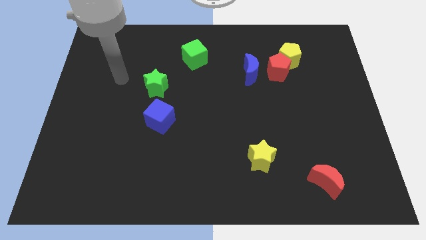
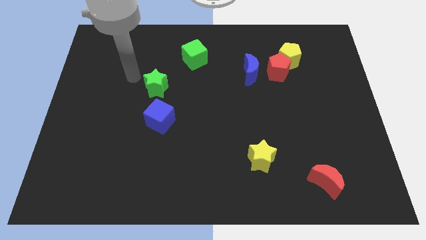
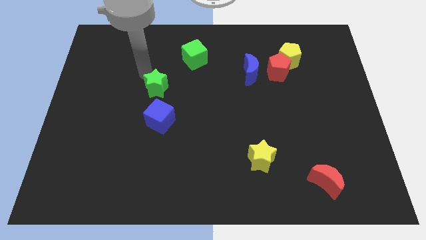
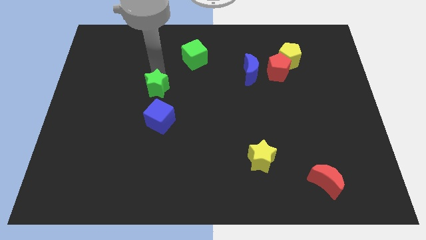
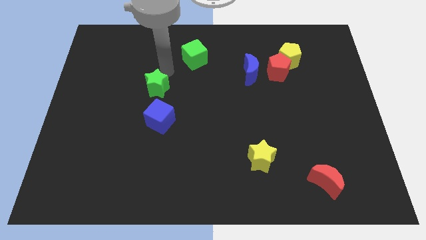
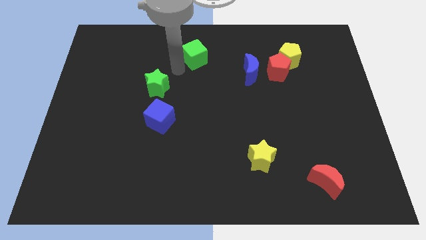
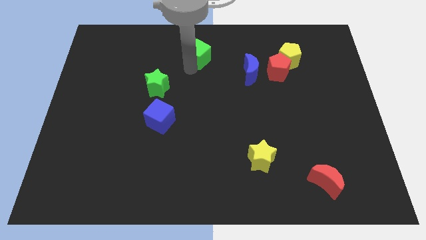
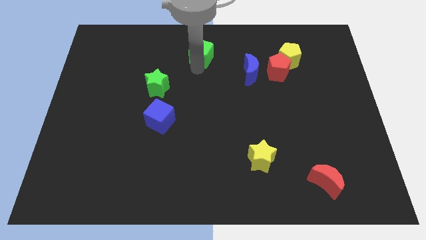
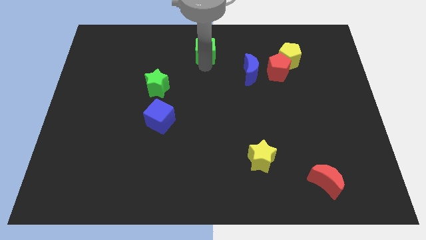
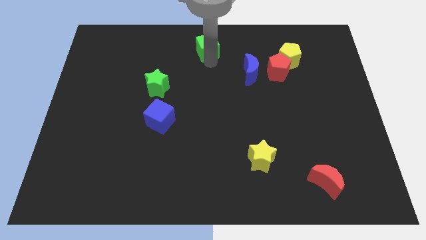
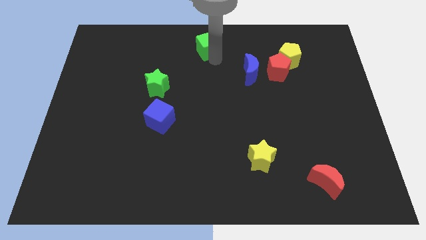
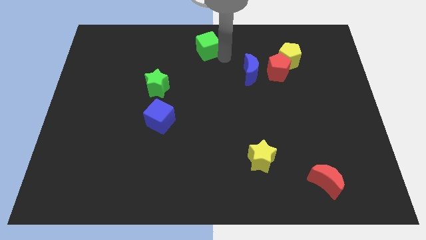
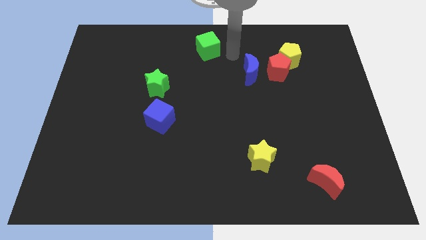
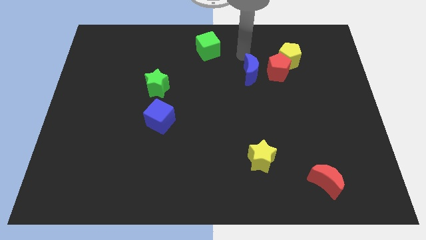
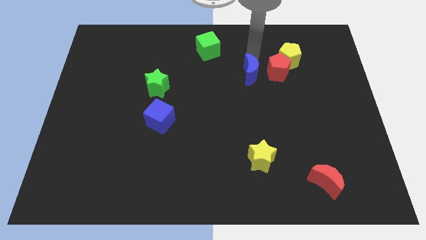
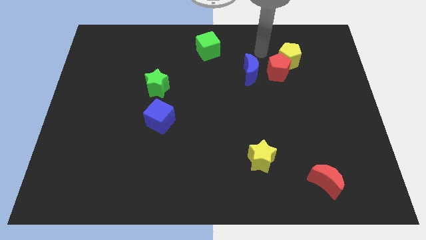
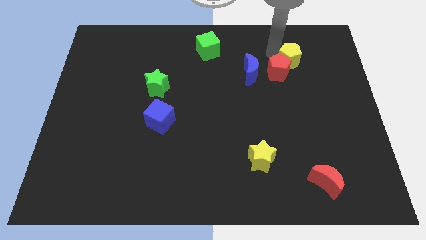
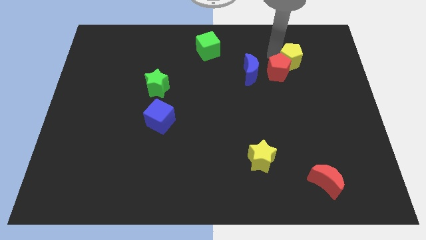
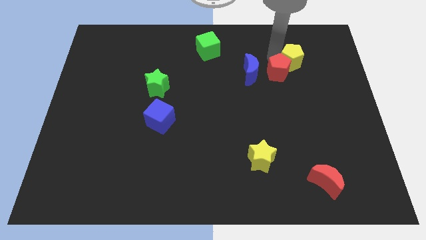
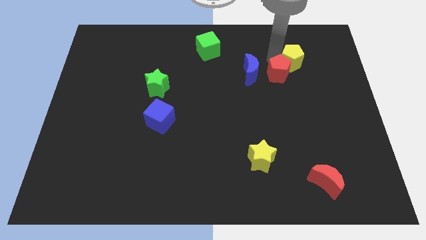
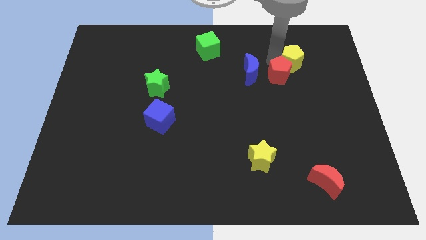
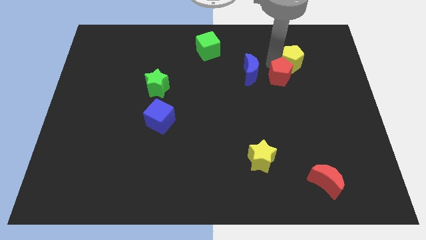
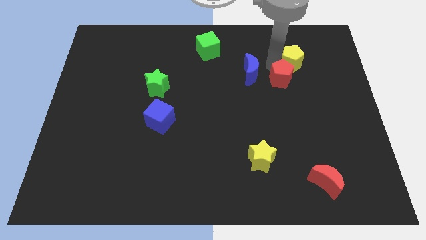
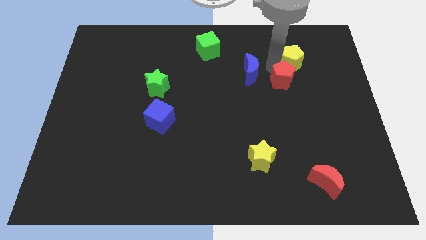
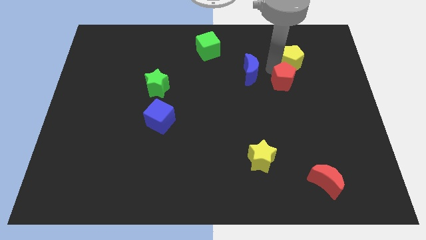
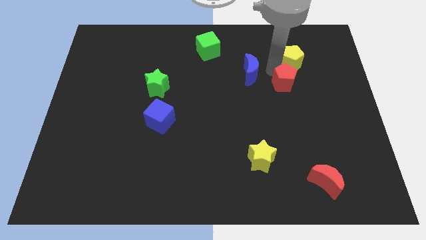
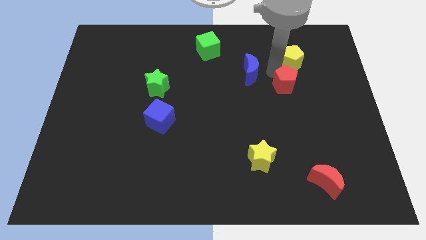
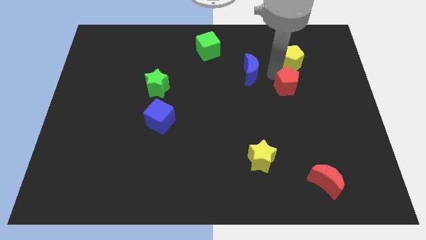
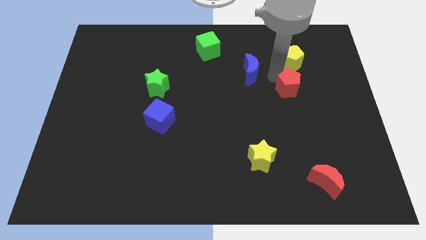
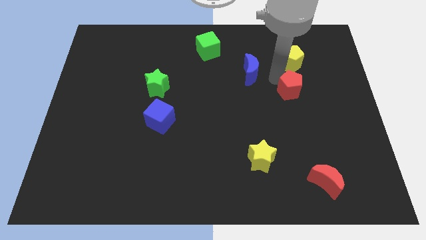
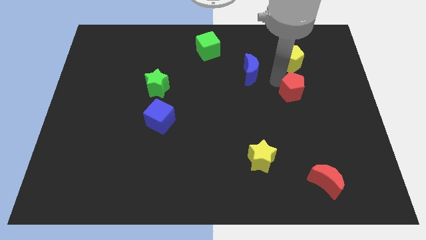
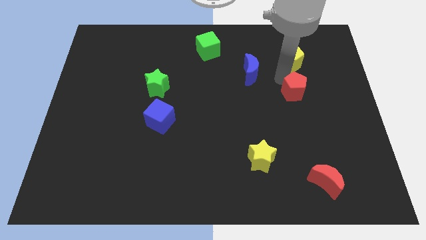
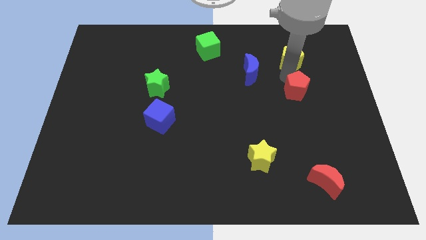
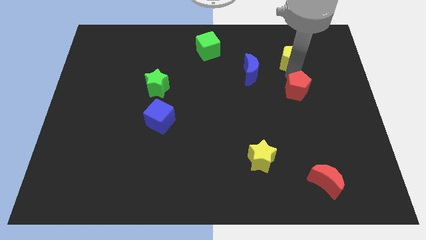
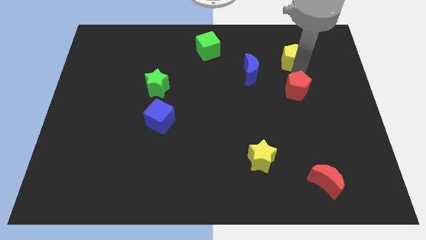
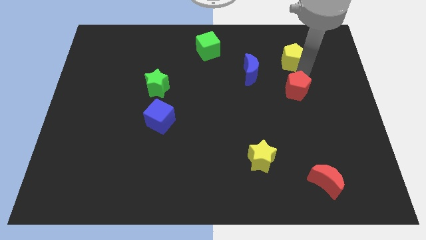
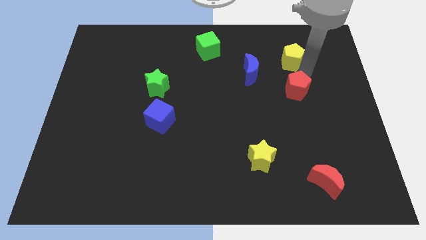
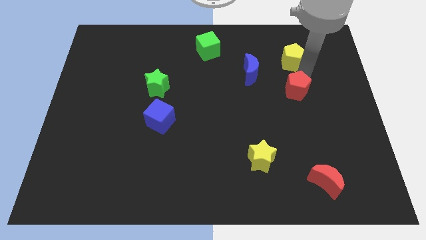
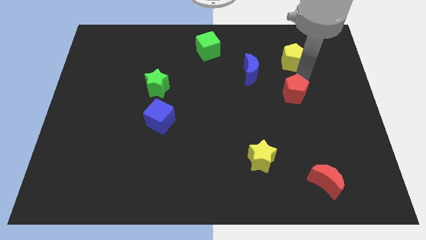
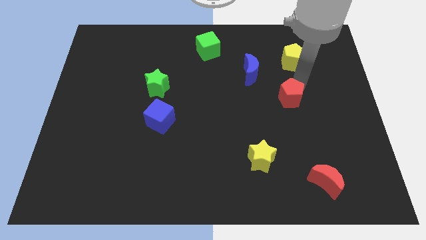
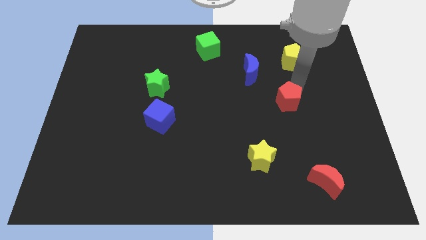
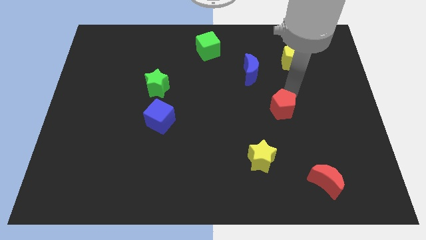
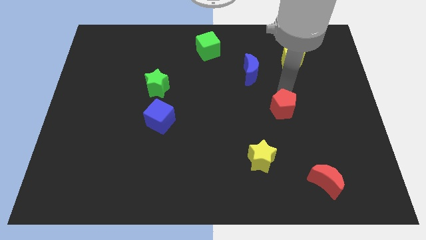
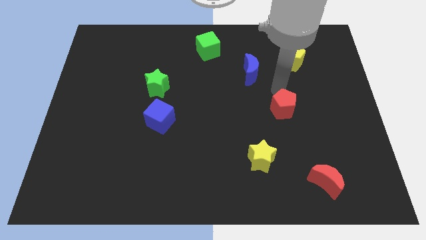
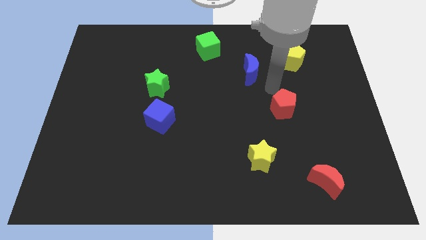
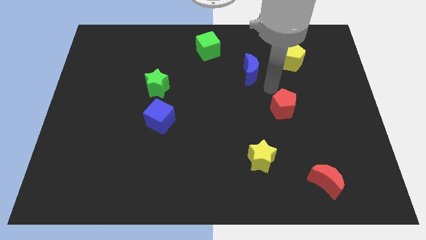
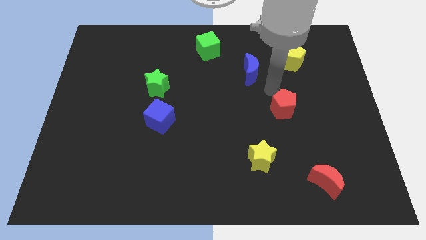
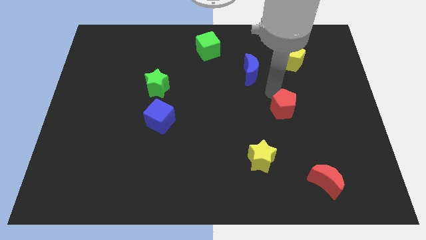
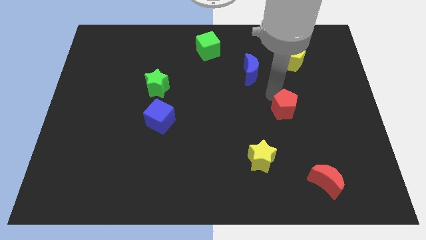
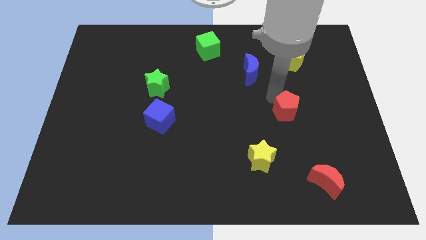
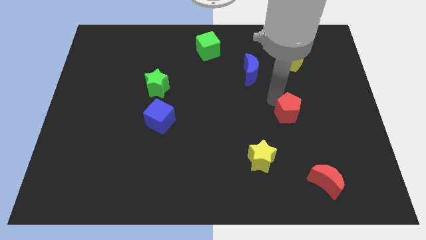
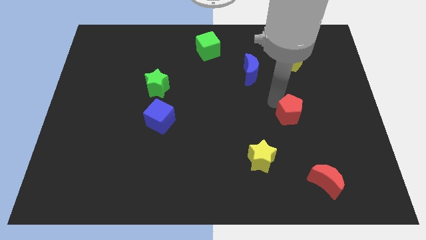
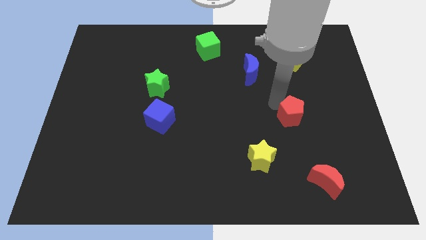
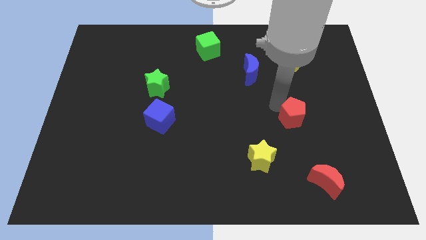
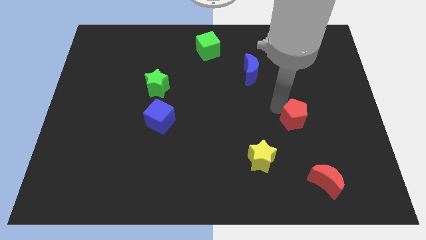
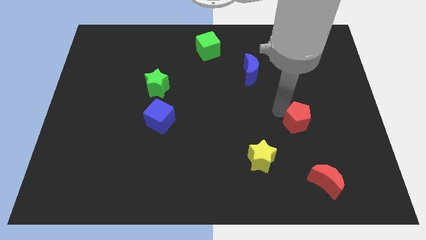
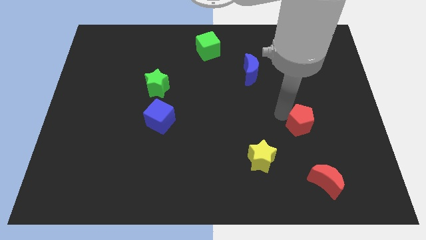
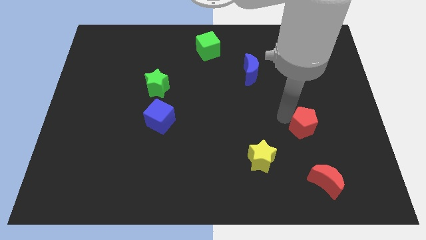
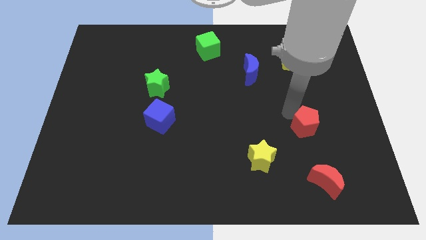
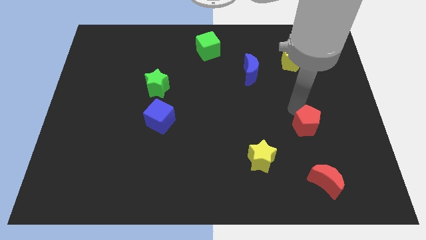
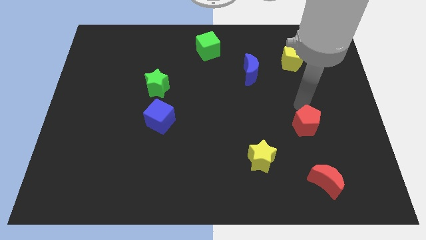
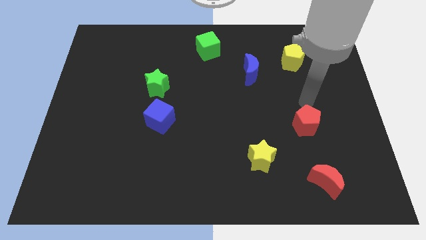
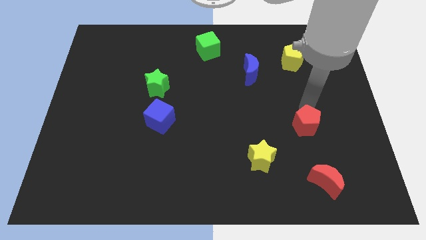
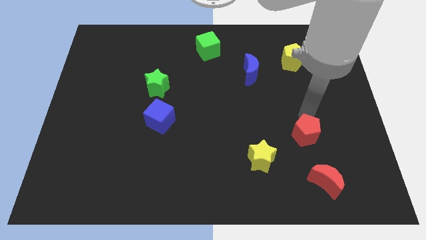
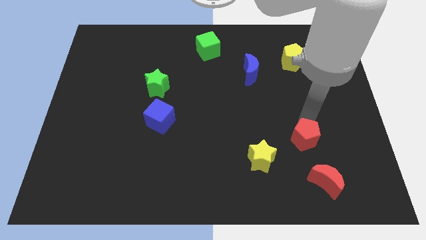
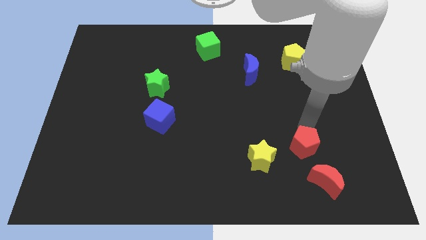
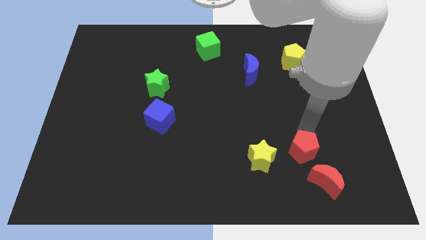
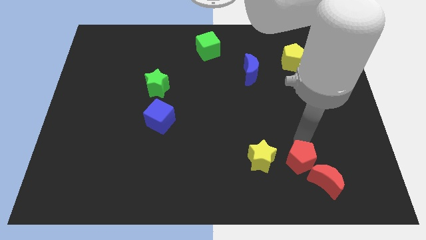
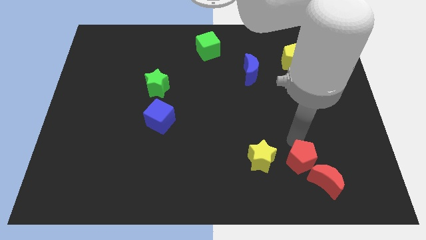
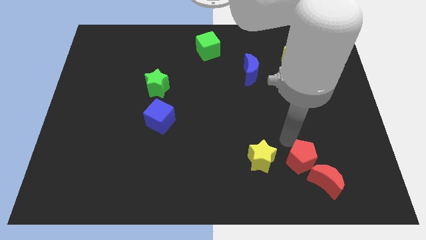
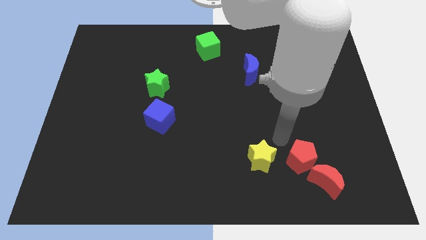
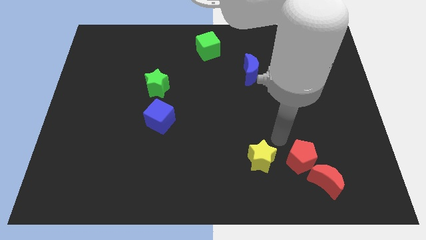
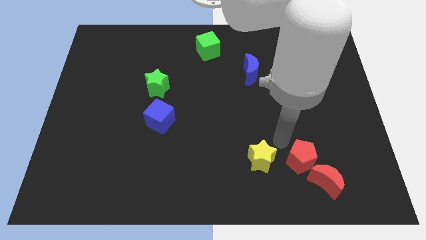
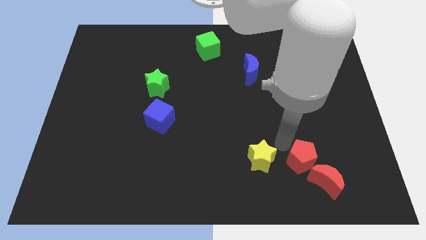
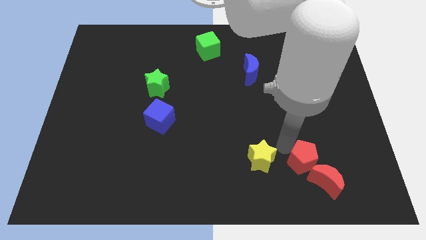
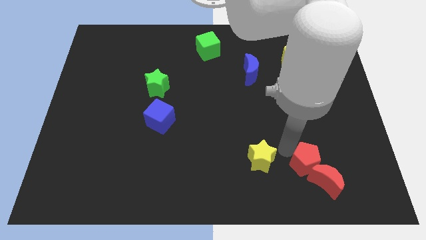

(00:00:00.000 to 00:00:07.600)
move the red pentagon next to the red moon
